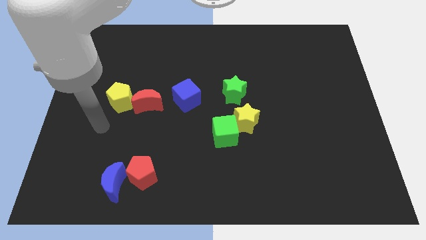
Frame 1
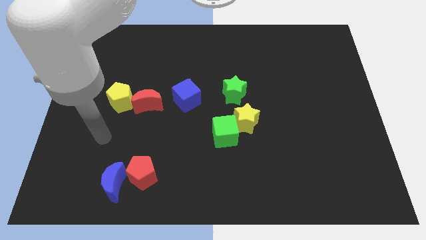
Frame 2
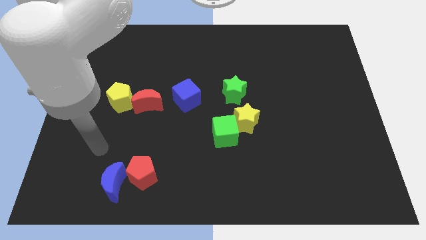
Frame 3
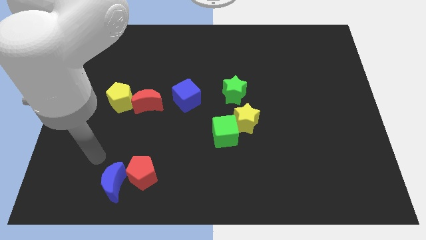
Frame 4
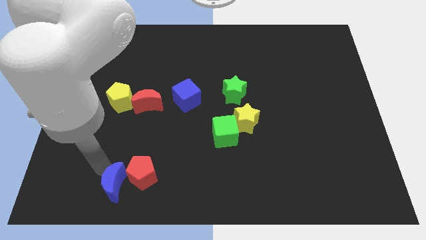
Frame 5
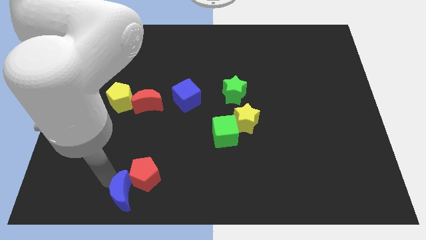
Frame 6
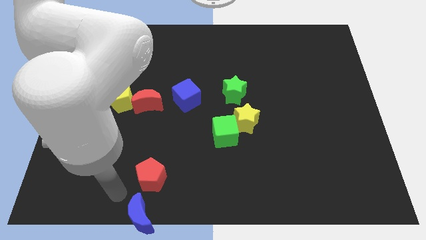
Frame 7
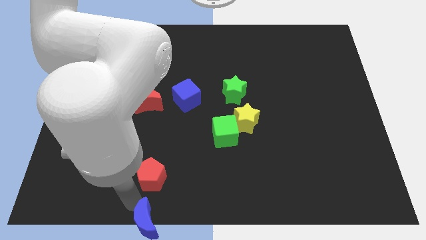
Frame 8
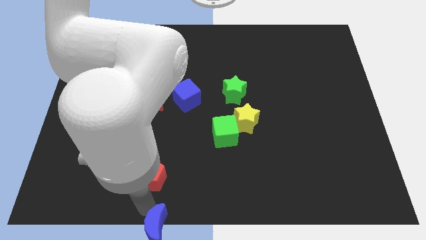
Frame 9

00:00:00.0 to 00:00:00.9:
separate the red pentagon from the blue moon

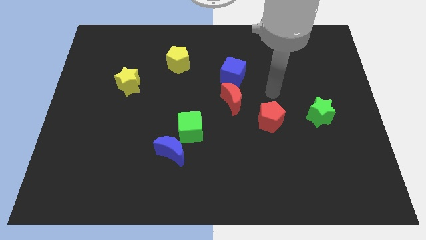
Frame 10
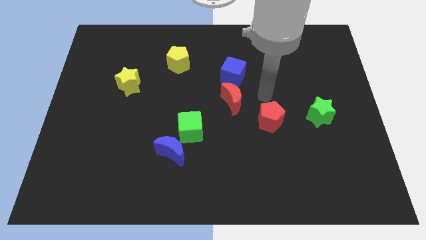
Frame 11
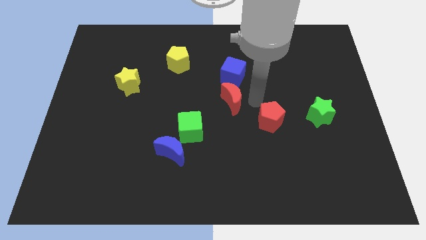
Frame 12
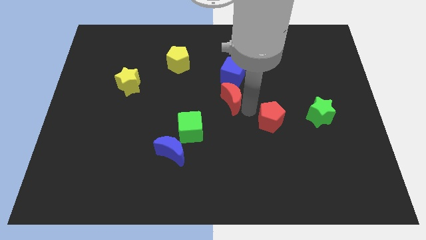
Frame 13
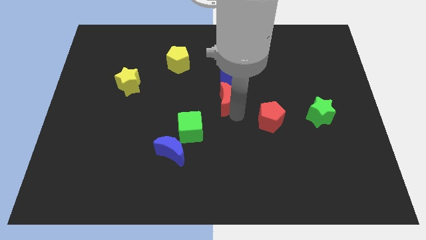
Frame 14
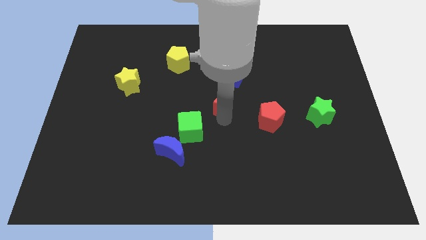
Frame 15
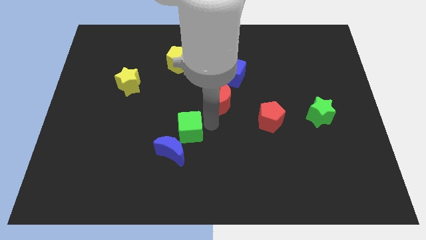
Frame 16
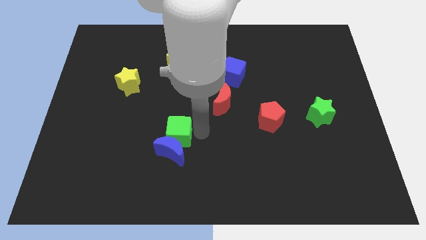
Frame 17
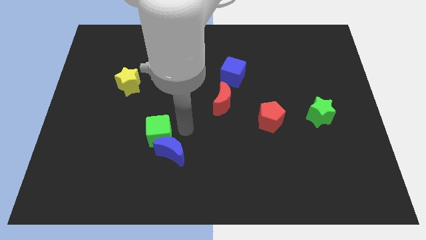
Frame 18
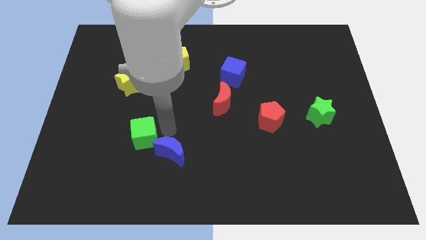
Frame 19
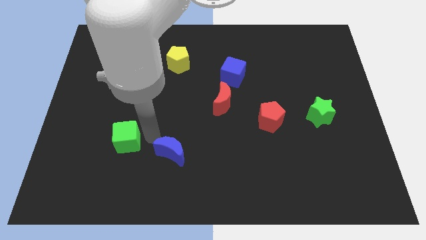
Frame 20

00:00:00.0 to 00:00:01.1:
separate the blue moon from the green cube

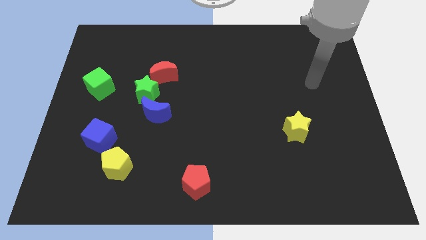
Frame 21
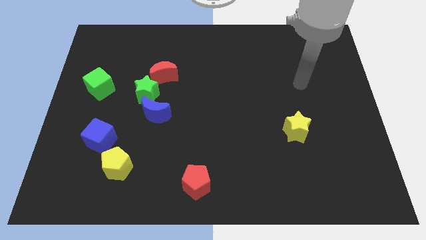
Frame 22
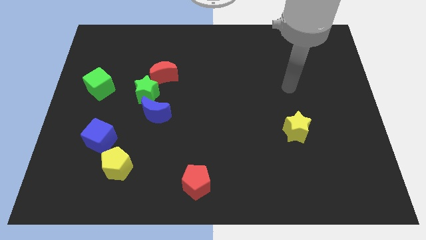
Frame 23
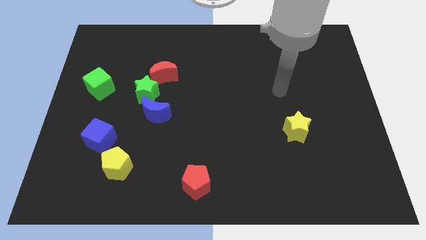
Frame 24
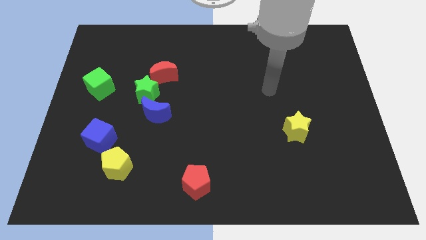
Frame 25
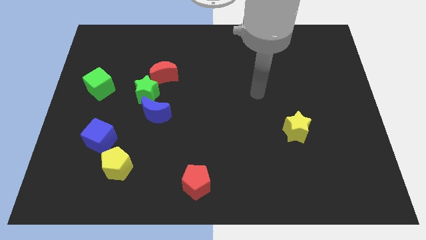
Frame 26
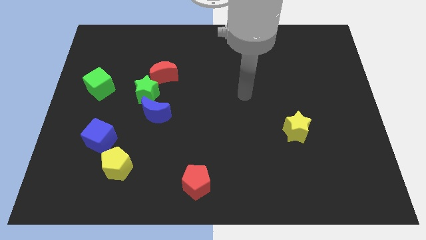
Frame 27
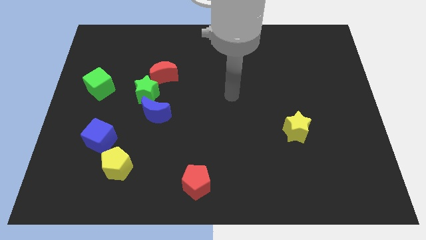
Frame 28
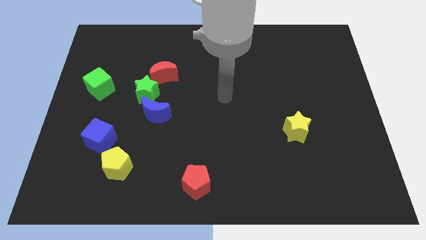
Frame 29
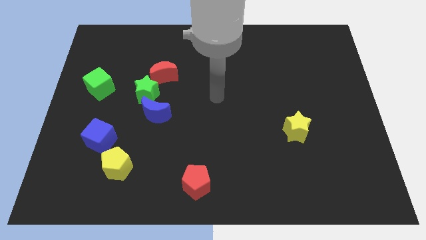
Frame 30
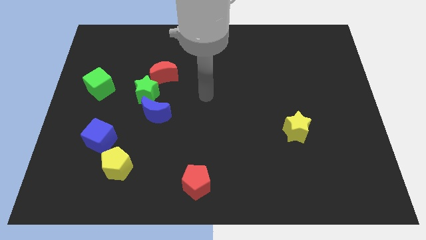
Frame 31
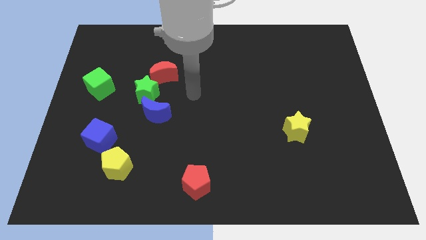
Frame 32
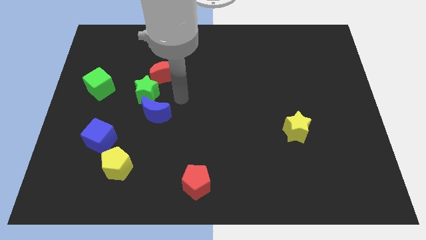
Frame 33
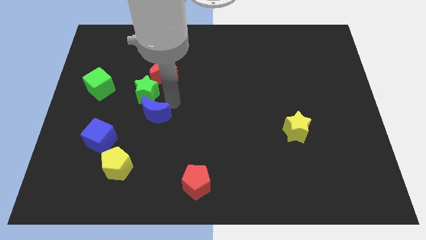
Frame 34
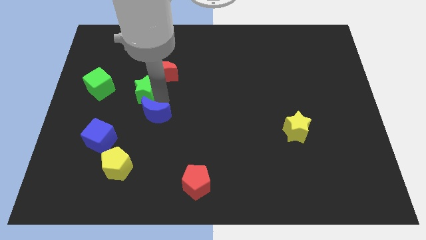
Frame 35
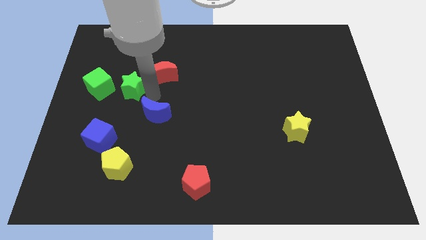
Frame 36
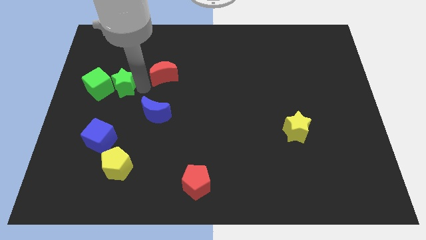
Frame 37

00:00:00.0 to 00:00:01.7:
move the red moon away from the green star

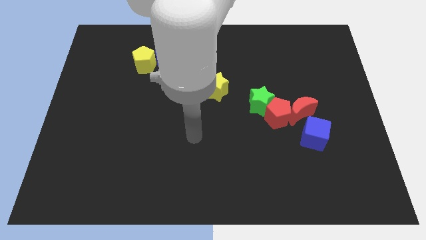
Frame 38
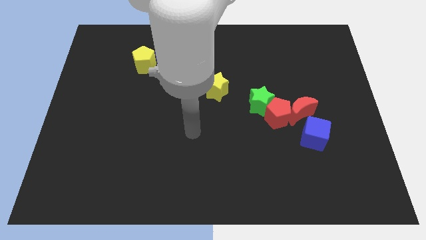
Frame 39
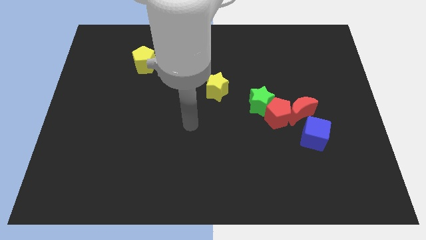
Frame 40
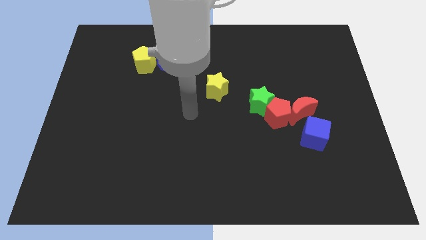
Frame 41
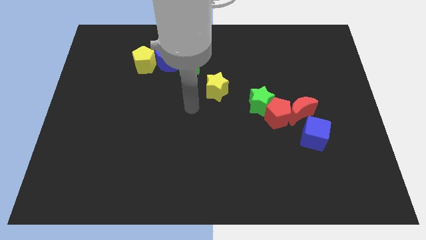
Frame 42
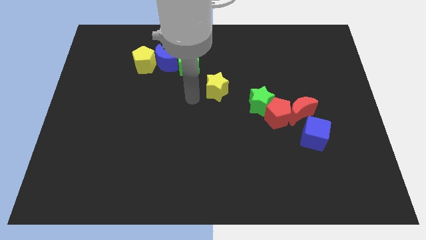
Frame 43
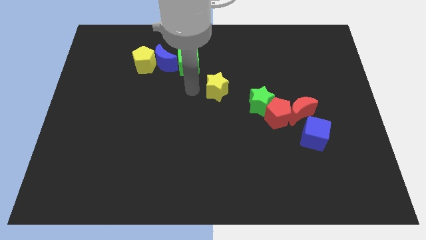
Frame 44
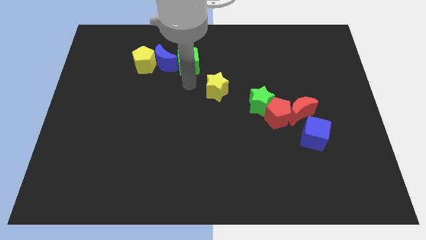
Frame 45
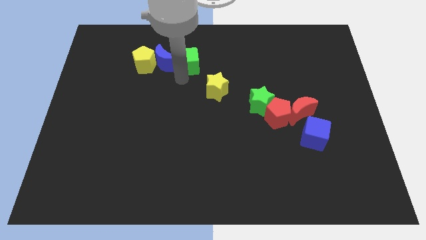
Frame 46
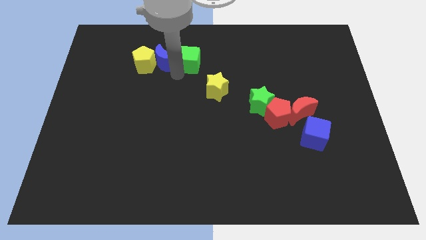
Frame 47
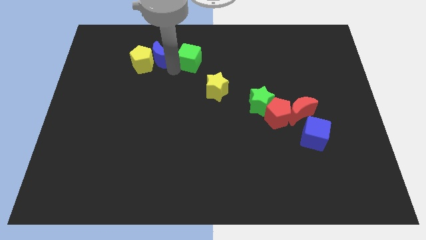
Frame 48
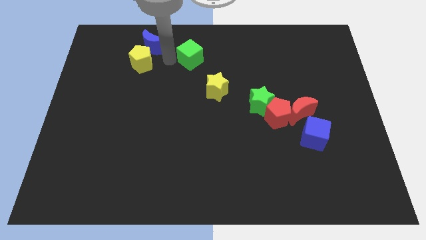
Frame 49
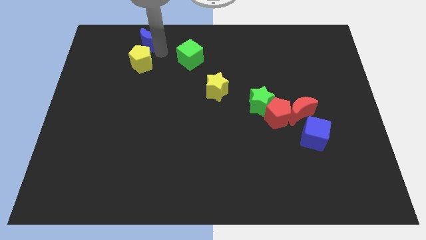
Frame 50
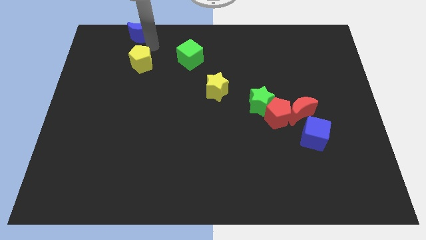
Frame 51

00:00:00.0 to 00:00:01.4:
move the yellow pentagon away from the blue moon

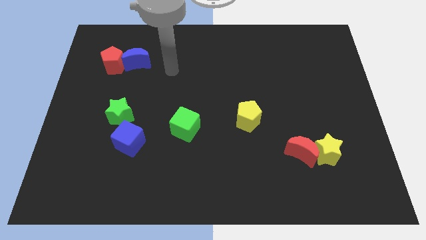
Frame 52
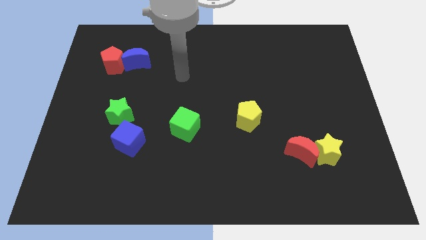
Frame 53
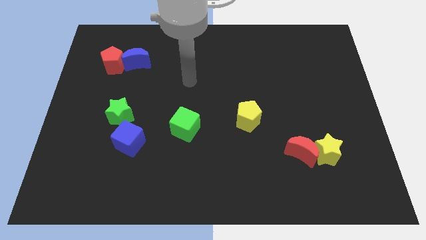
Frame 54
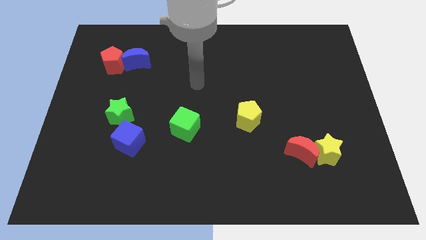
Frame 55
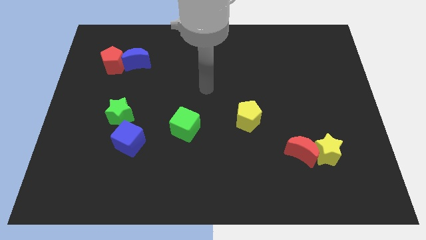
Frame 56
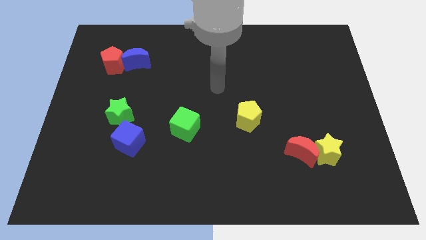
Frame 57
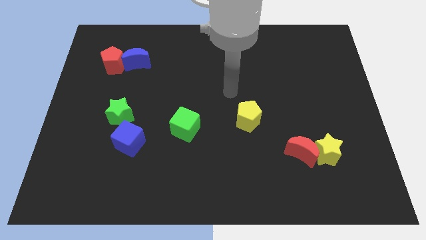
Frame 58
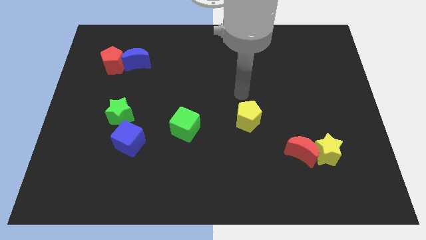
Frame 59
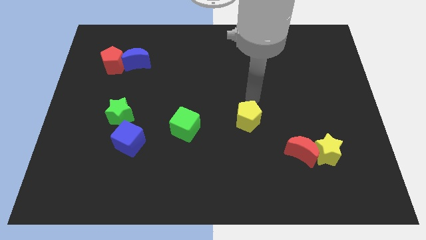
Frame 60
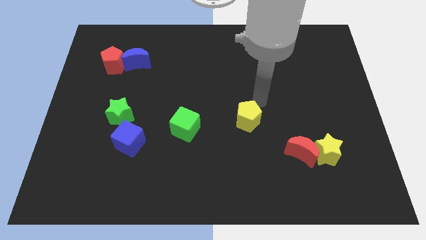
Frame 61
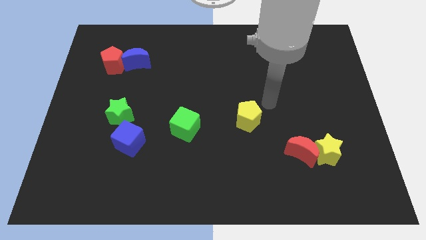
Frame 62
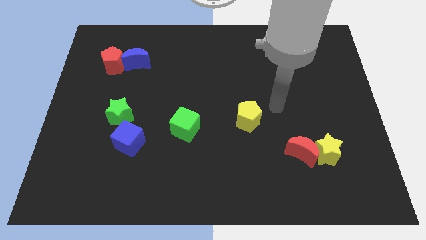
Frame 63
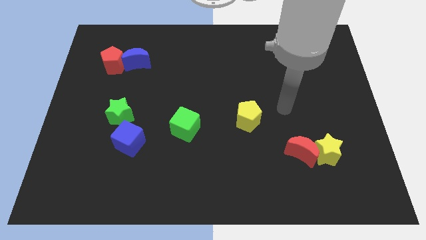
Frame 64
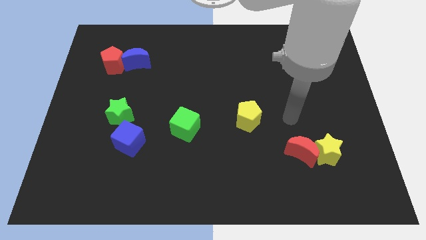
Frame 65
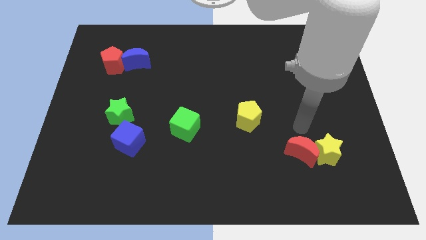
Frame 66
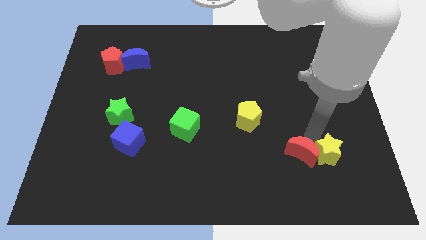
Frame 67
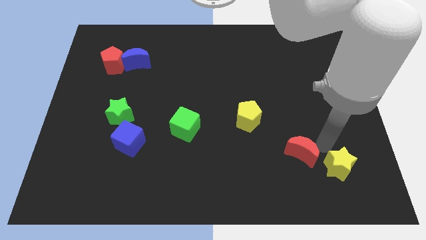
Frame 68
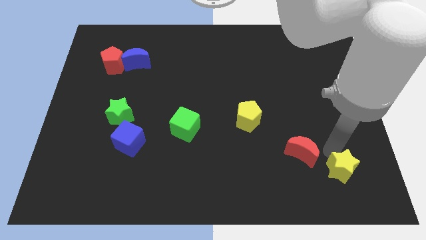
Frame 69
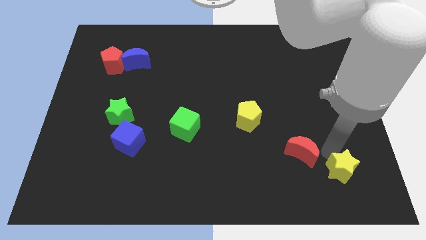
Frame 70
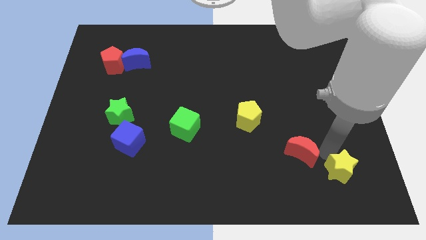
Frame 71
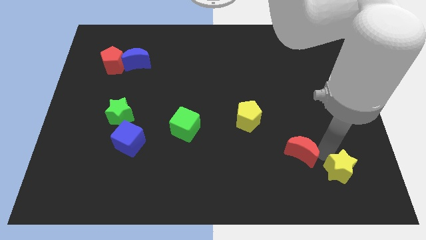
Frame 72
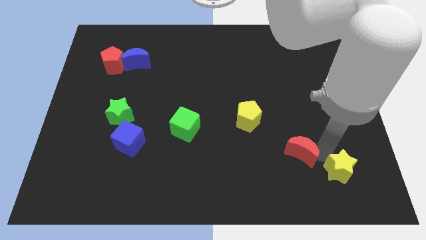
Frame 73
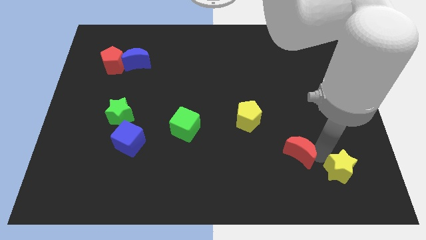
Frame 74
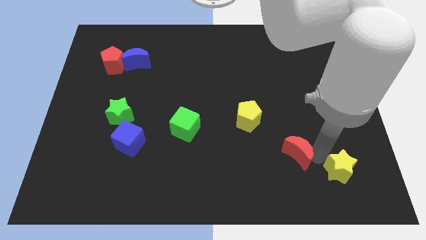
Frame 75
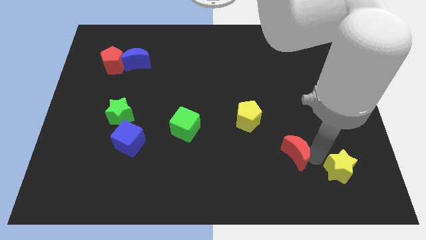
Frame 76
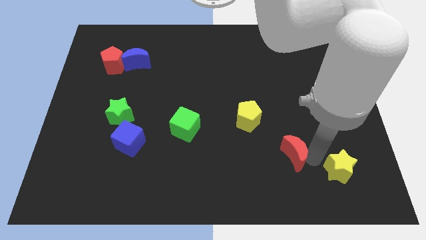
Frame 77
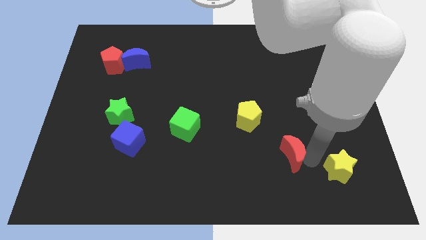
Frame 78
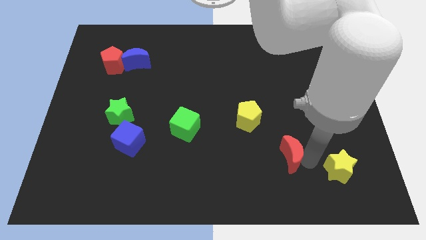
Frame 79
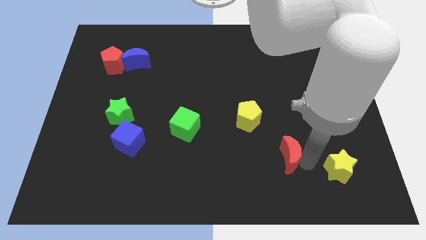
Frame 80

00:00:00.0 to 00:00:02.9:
separate the red moon from the yellow star

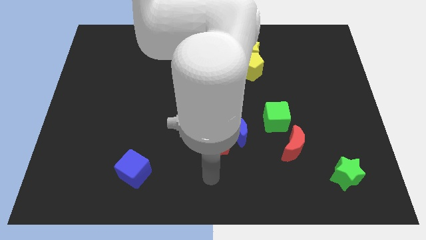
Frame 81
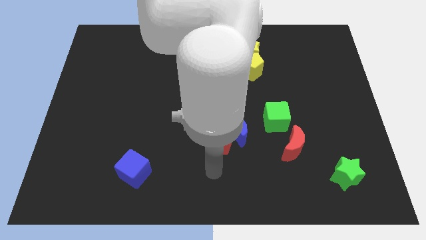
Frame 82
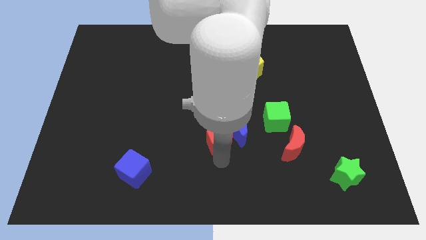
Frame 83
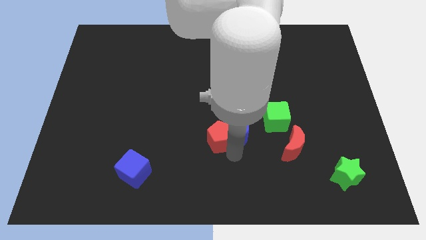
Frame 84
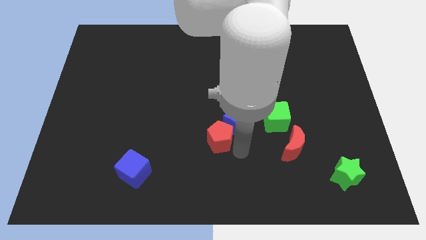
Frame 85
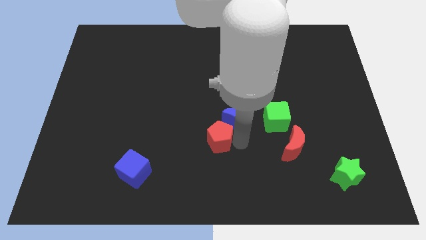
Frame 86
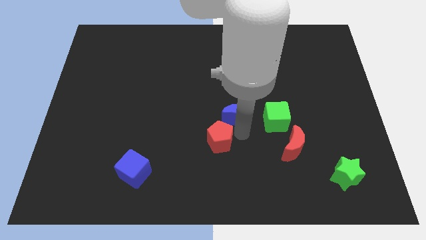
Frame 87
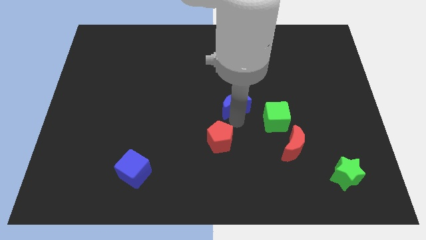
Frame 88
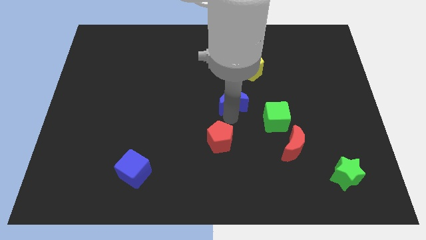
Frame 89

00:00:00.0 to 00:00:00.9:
move the red pentagon away from the blue moon

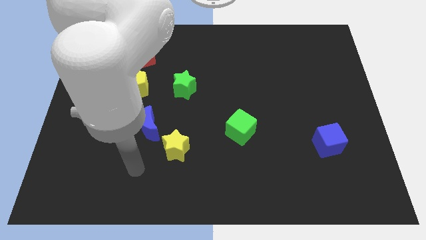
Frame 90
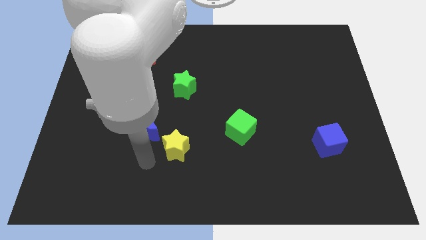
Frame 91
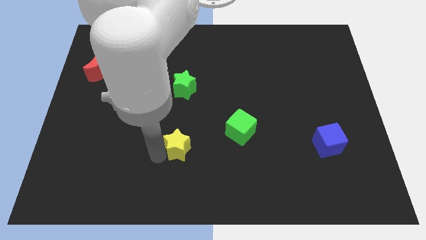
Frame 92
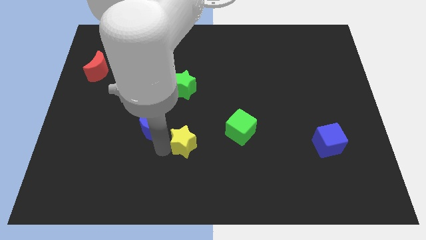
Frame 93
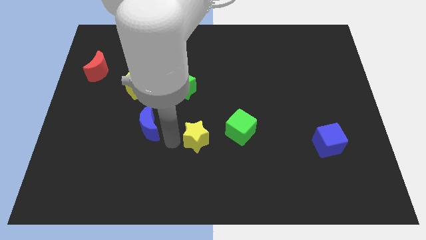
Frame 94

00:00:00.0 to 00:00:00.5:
move the blue moon away from the yellow star
